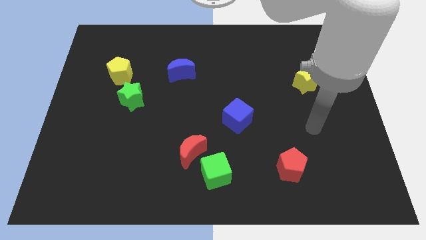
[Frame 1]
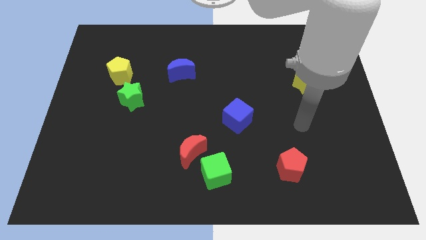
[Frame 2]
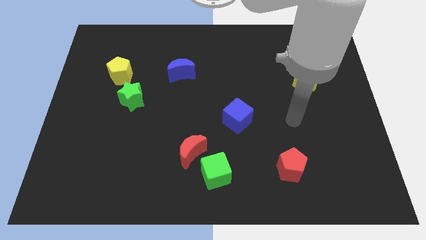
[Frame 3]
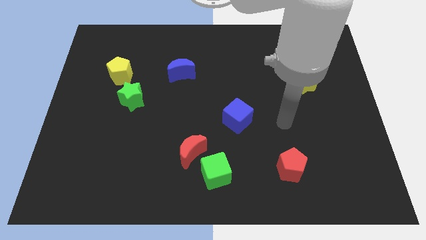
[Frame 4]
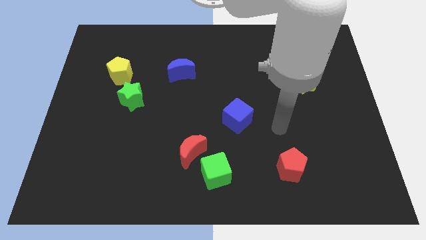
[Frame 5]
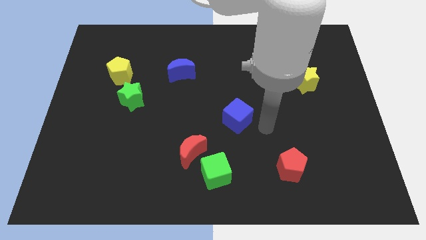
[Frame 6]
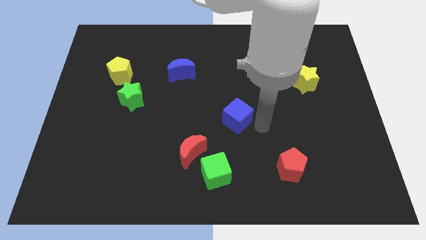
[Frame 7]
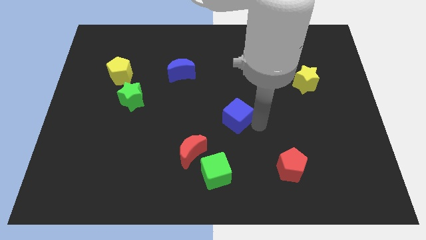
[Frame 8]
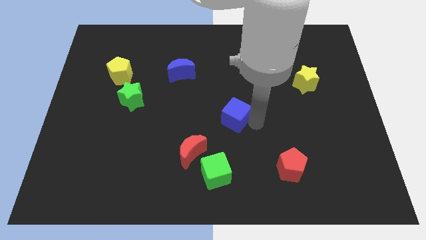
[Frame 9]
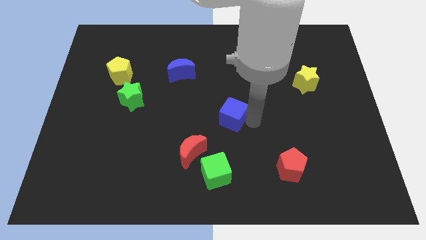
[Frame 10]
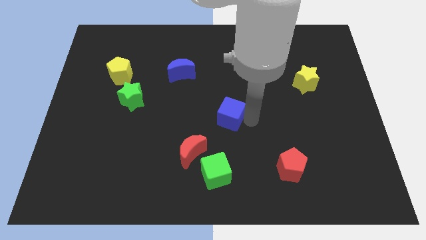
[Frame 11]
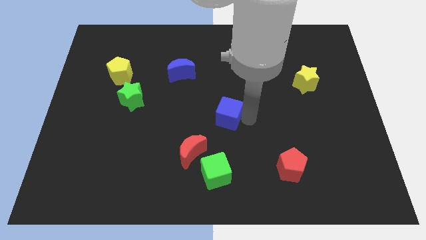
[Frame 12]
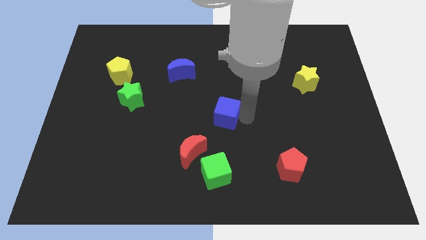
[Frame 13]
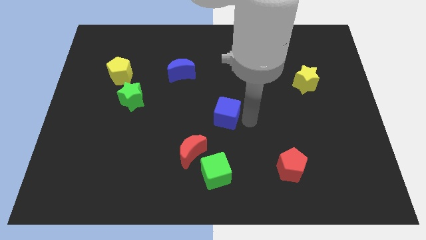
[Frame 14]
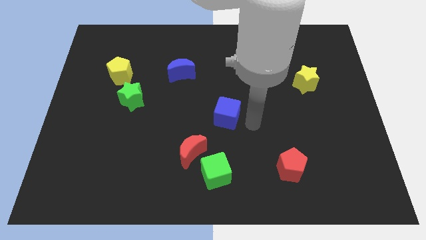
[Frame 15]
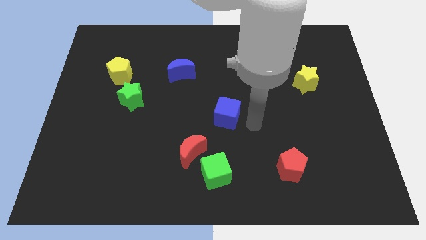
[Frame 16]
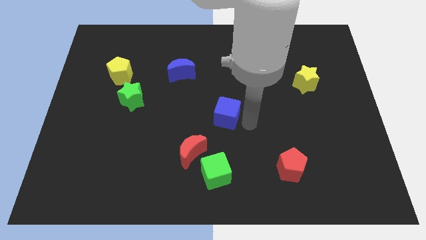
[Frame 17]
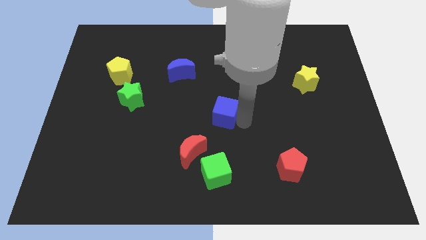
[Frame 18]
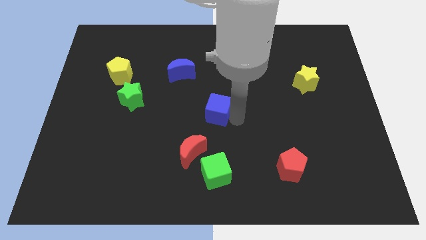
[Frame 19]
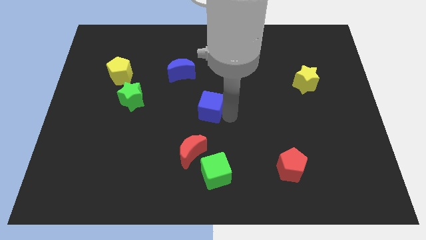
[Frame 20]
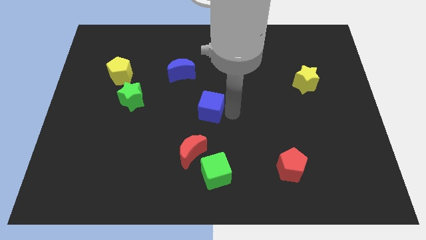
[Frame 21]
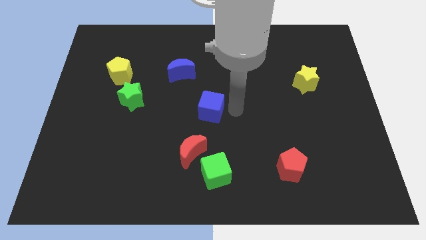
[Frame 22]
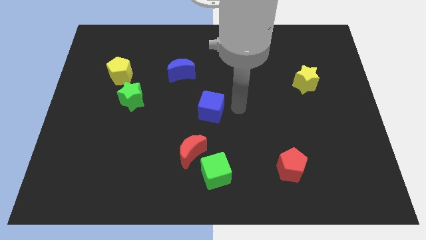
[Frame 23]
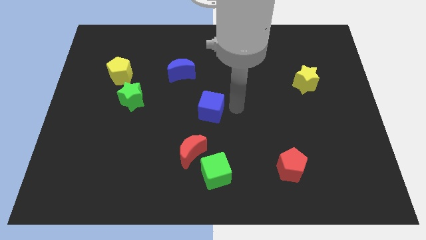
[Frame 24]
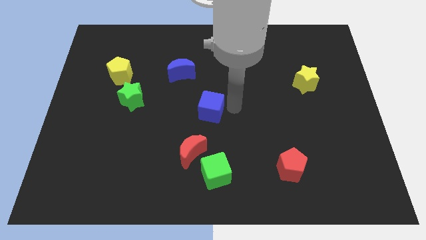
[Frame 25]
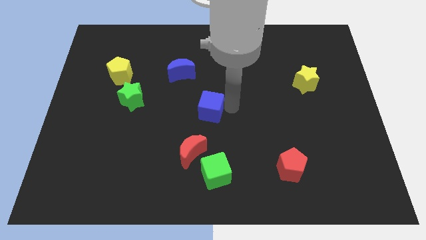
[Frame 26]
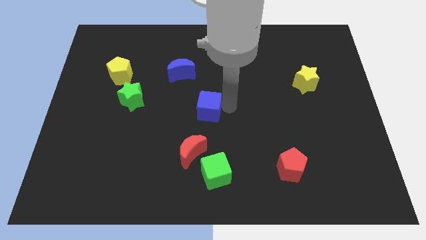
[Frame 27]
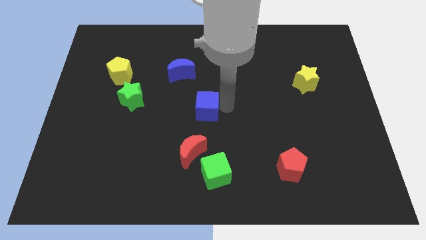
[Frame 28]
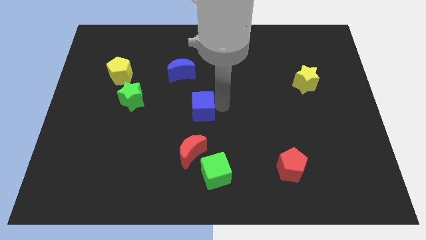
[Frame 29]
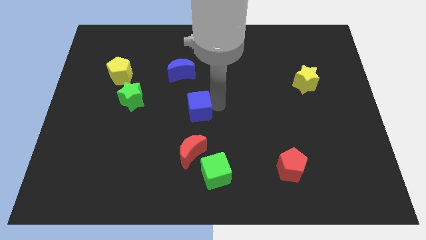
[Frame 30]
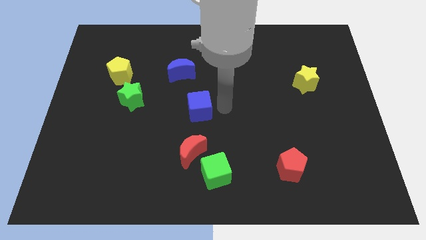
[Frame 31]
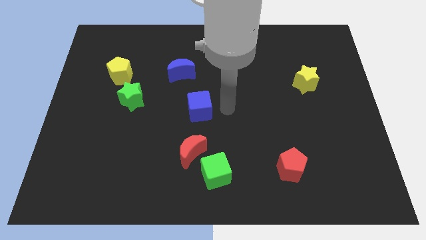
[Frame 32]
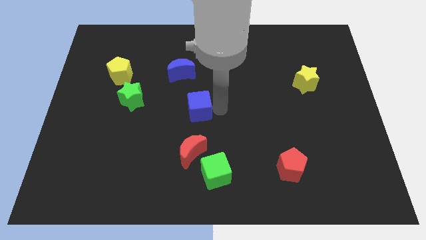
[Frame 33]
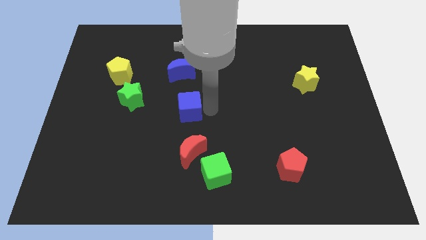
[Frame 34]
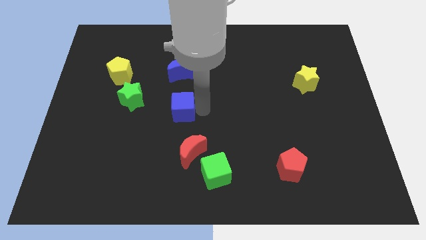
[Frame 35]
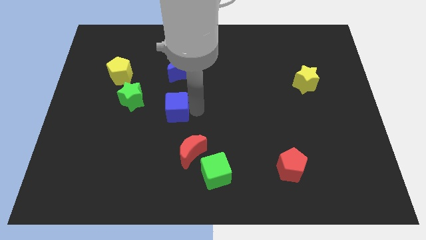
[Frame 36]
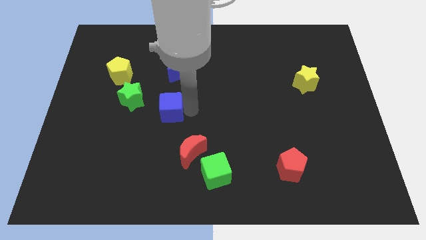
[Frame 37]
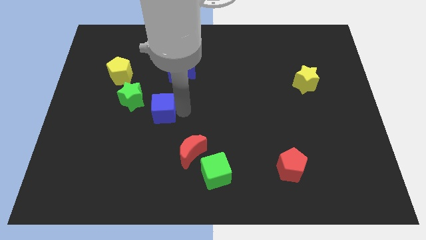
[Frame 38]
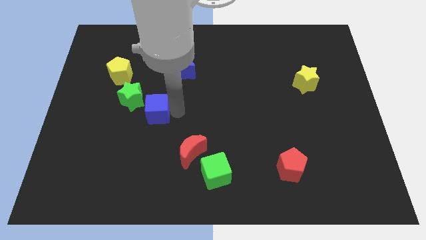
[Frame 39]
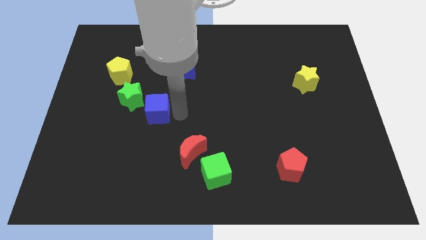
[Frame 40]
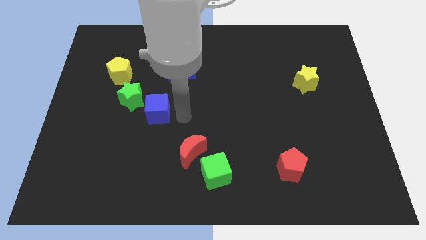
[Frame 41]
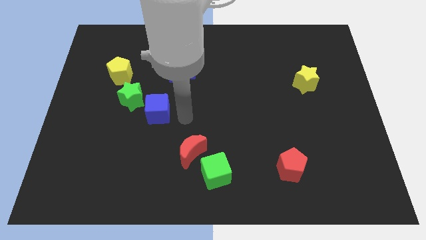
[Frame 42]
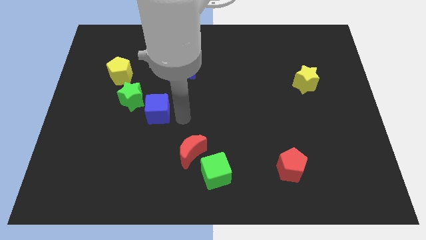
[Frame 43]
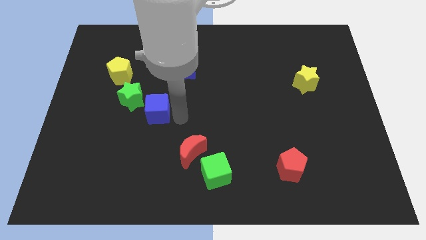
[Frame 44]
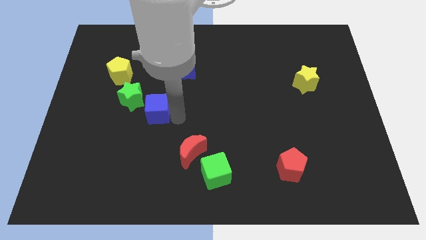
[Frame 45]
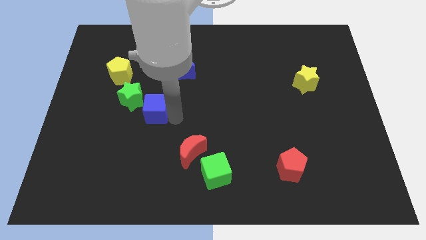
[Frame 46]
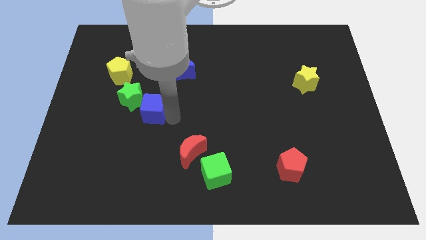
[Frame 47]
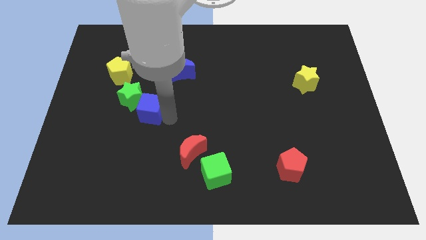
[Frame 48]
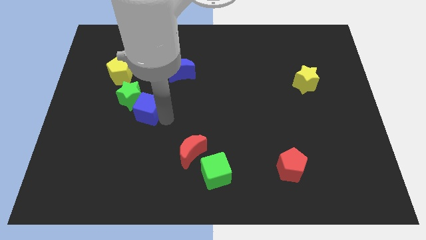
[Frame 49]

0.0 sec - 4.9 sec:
put the blue cube towards the green star

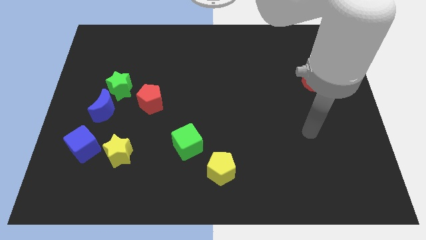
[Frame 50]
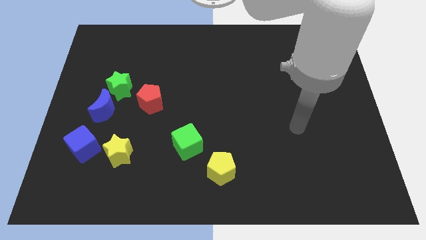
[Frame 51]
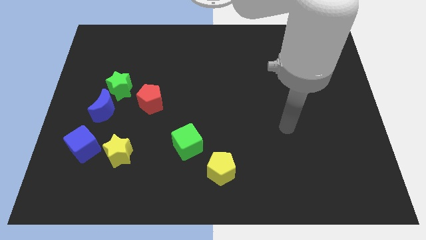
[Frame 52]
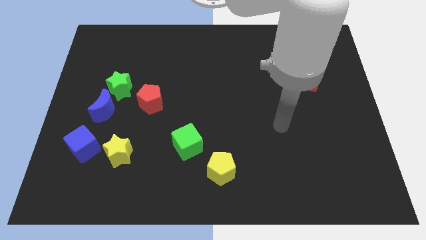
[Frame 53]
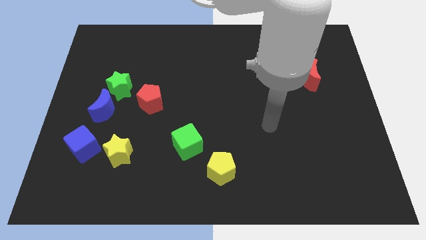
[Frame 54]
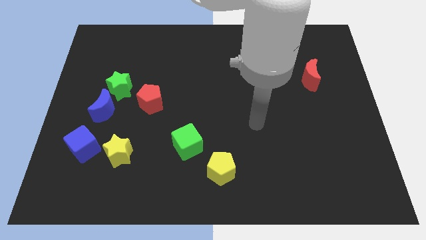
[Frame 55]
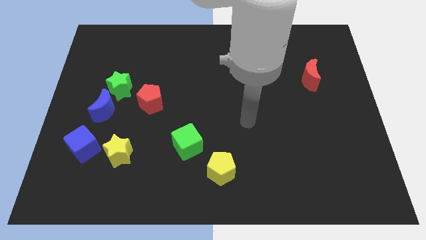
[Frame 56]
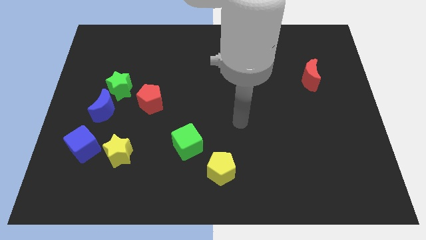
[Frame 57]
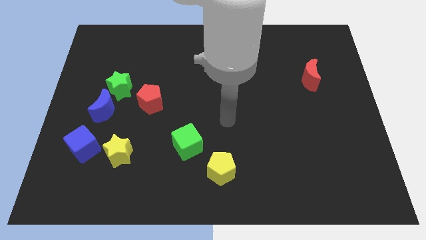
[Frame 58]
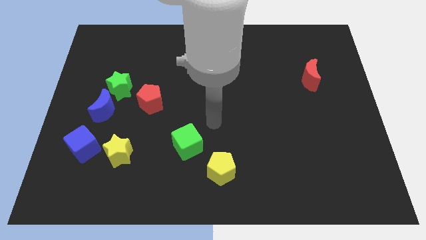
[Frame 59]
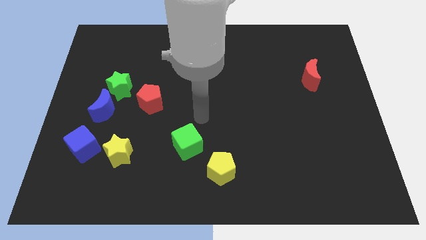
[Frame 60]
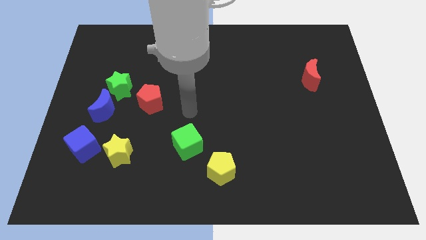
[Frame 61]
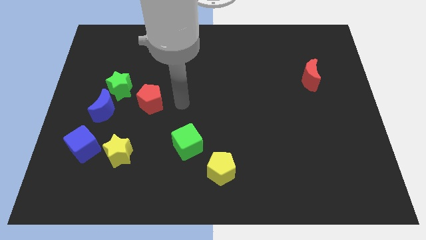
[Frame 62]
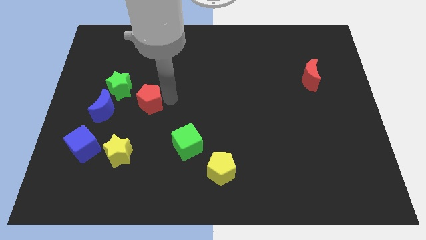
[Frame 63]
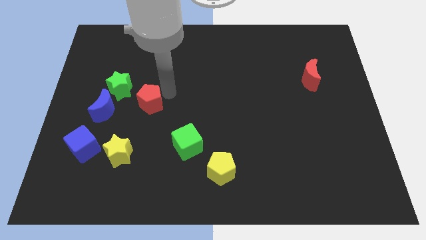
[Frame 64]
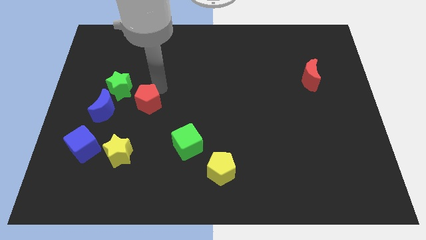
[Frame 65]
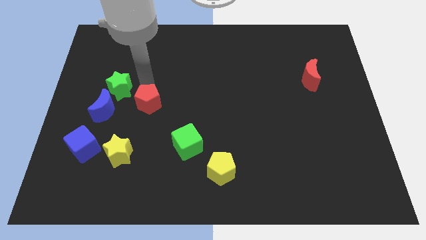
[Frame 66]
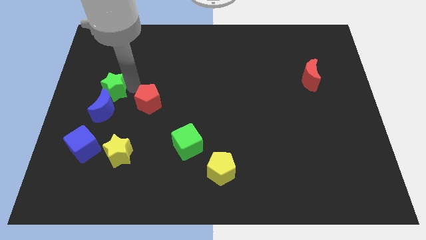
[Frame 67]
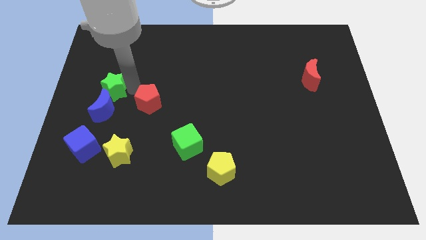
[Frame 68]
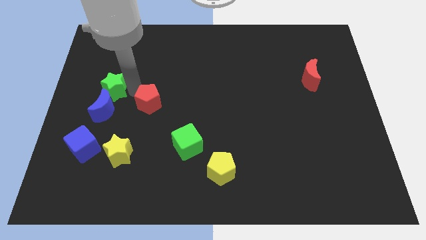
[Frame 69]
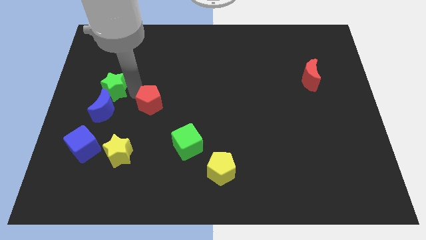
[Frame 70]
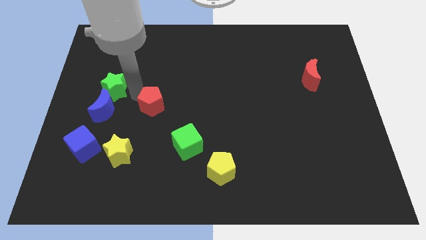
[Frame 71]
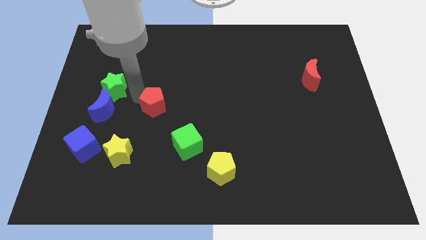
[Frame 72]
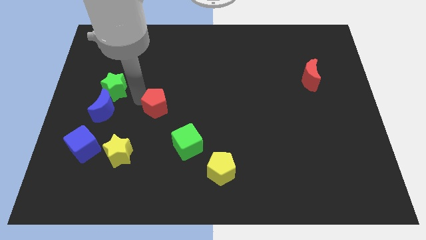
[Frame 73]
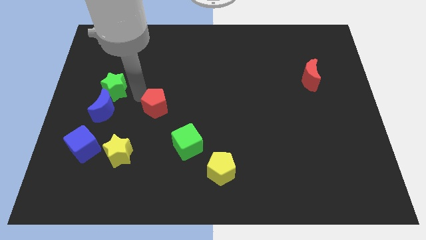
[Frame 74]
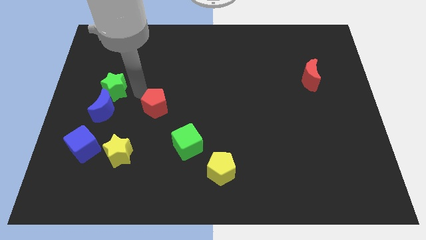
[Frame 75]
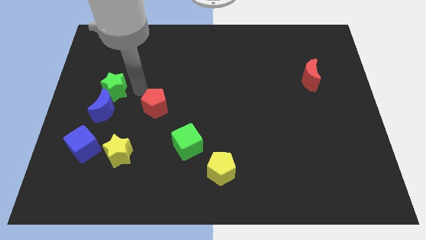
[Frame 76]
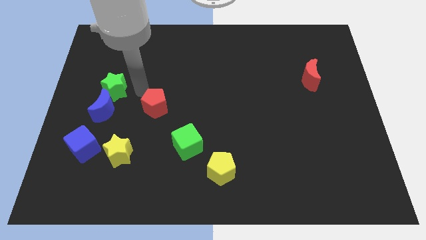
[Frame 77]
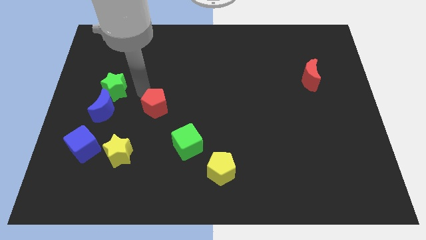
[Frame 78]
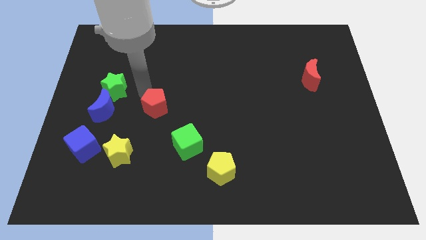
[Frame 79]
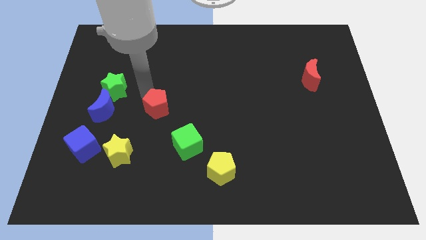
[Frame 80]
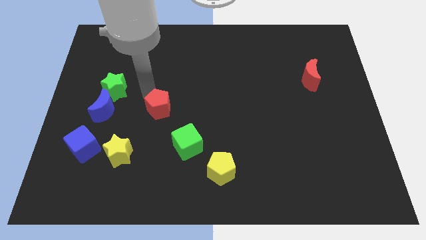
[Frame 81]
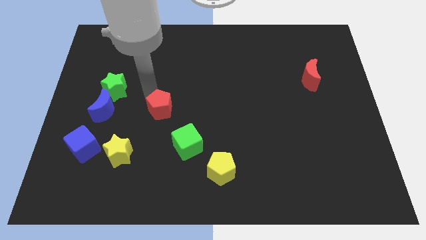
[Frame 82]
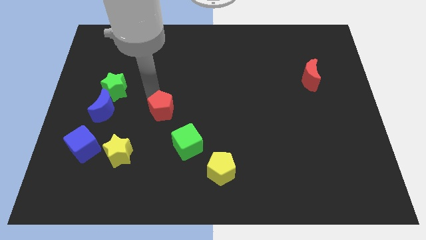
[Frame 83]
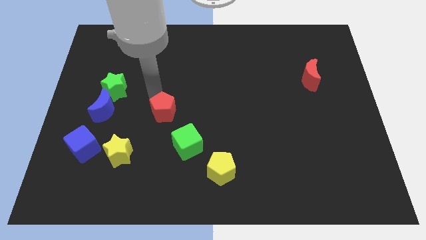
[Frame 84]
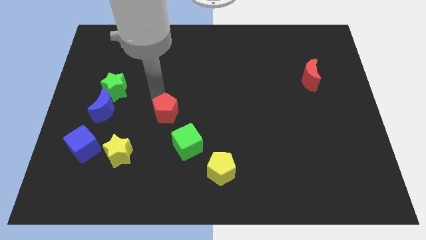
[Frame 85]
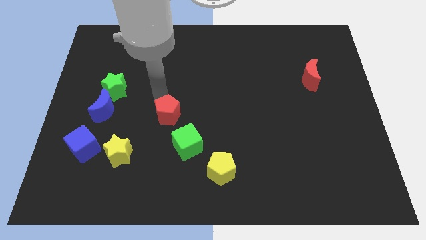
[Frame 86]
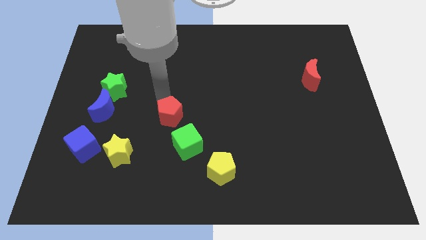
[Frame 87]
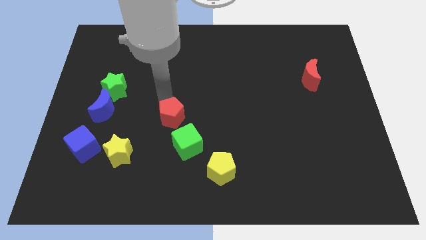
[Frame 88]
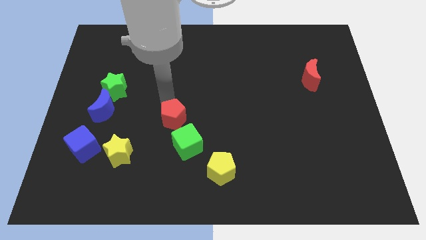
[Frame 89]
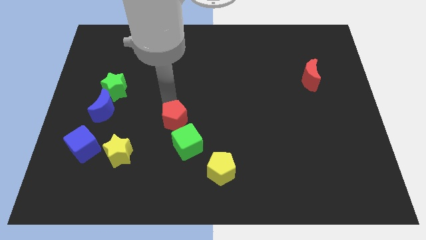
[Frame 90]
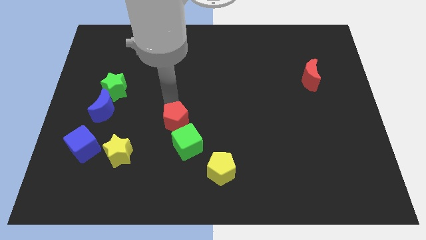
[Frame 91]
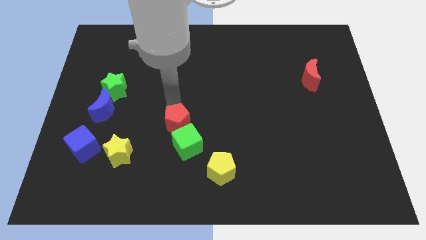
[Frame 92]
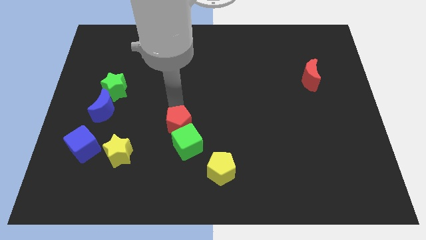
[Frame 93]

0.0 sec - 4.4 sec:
move the red pentagon close to the green cube
